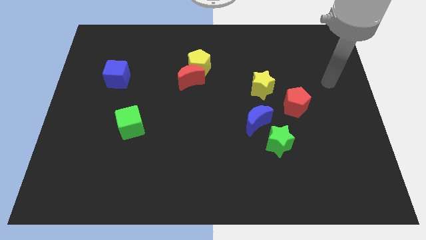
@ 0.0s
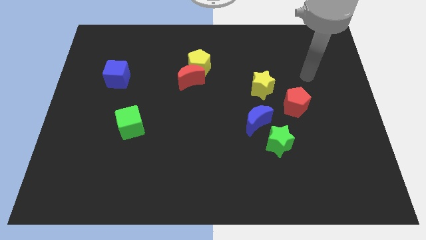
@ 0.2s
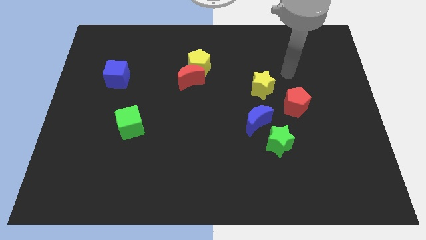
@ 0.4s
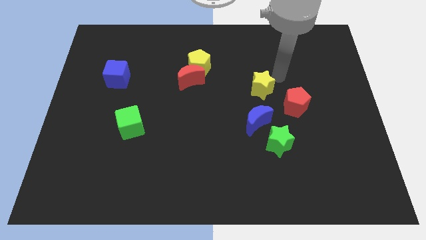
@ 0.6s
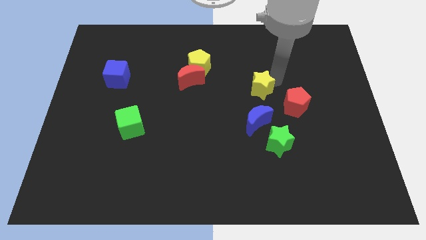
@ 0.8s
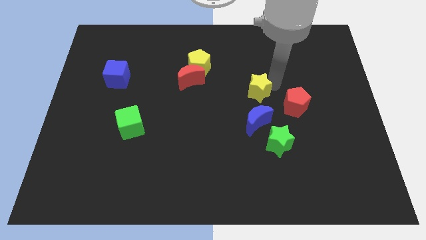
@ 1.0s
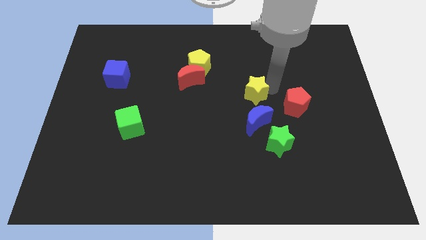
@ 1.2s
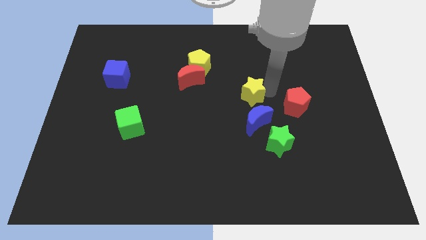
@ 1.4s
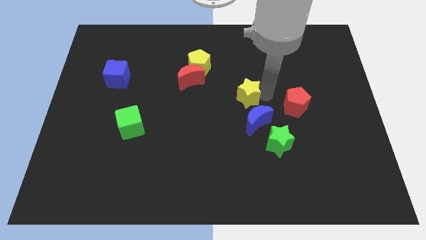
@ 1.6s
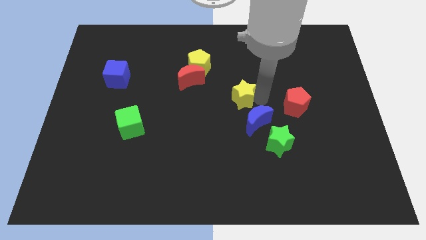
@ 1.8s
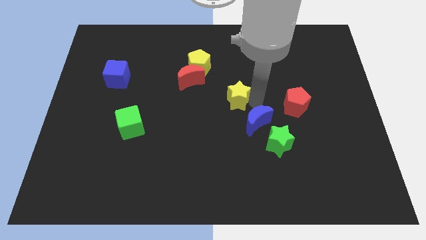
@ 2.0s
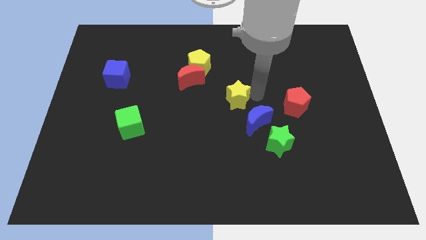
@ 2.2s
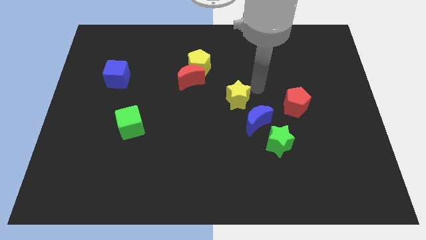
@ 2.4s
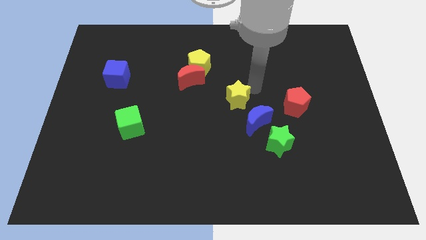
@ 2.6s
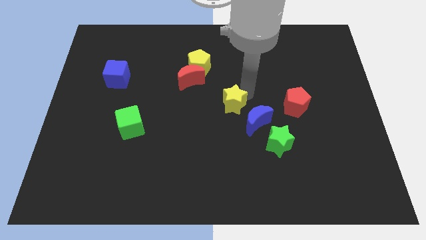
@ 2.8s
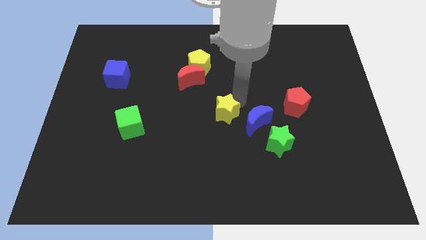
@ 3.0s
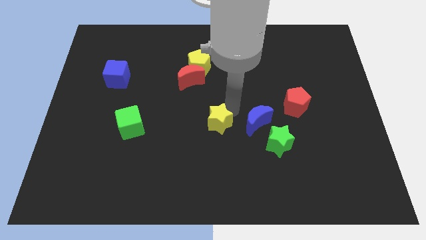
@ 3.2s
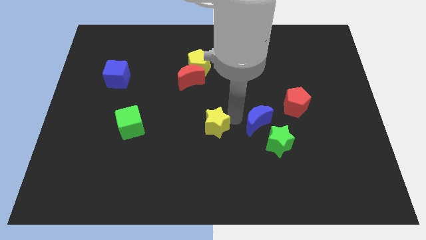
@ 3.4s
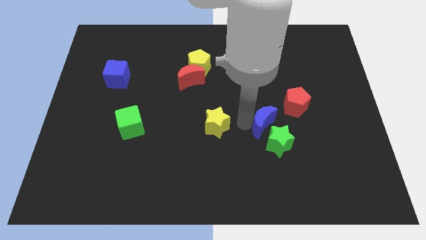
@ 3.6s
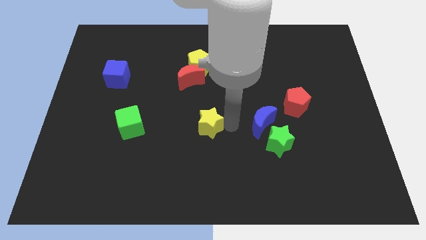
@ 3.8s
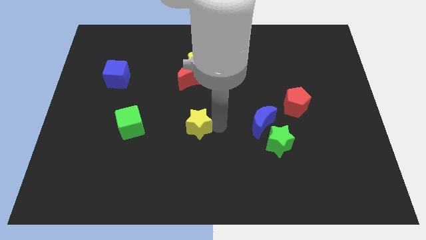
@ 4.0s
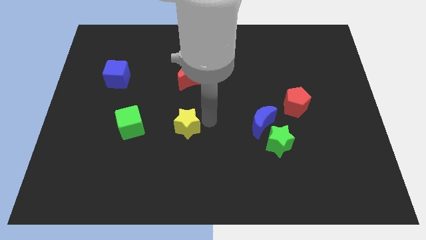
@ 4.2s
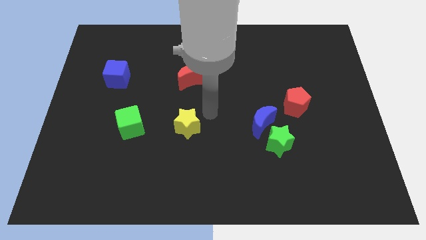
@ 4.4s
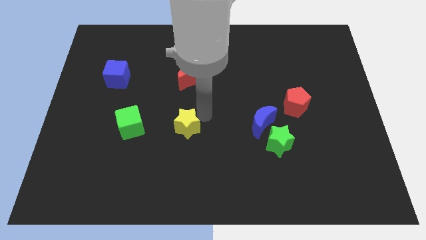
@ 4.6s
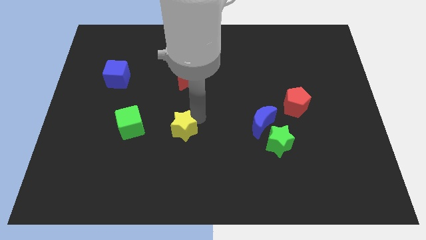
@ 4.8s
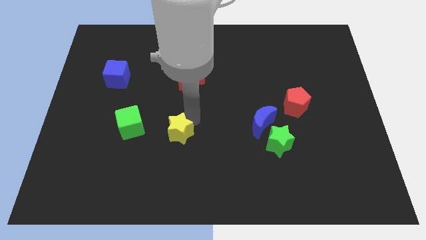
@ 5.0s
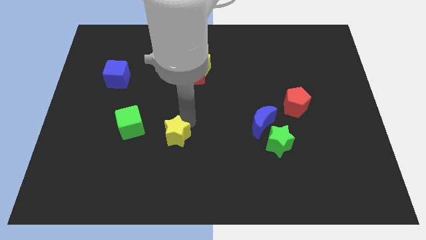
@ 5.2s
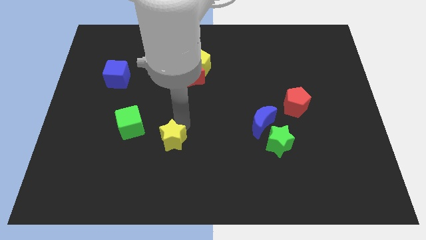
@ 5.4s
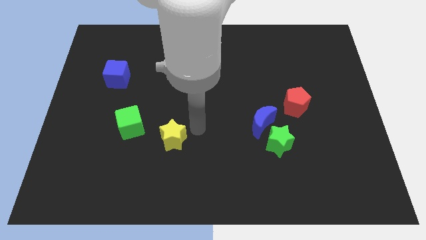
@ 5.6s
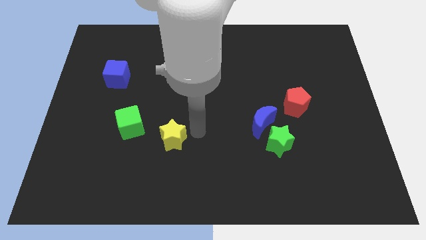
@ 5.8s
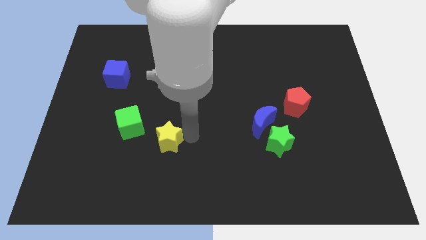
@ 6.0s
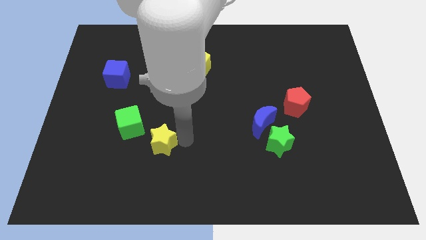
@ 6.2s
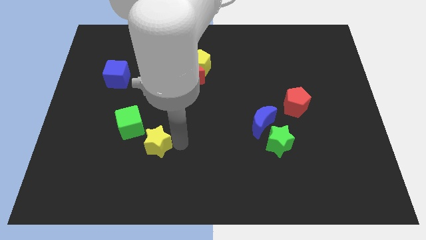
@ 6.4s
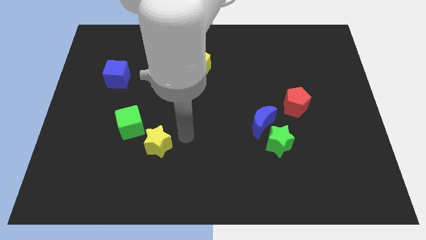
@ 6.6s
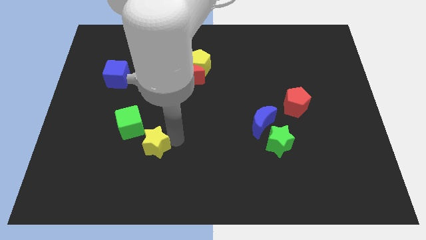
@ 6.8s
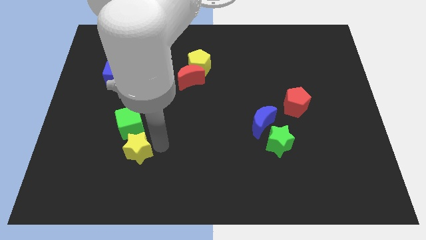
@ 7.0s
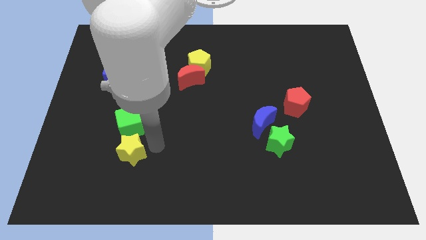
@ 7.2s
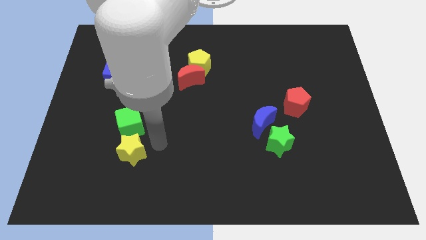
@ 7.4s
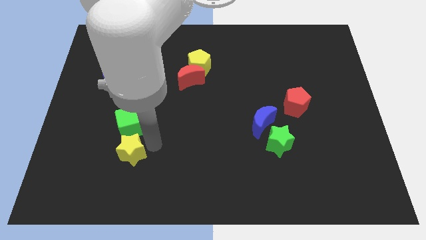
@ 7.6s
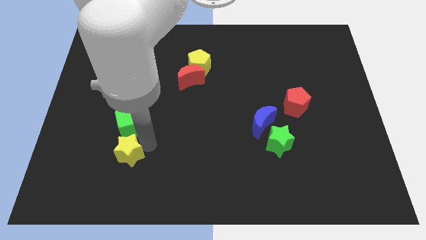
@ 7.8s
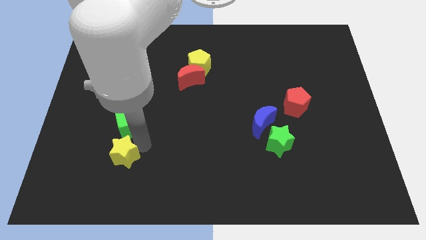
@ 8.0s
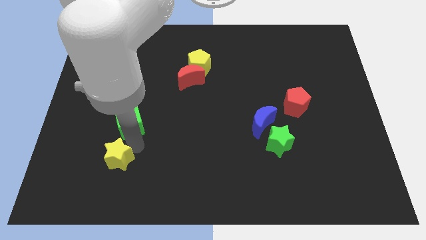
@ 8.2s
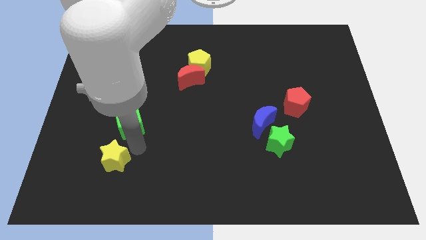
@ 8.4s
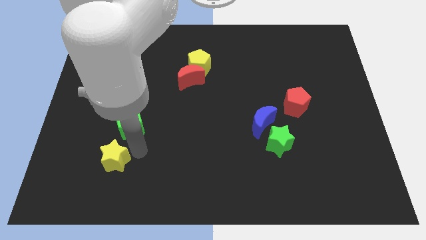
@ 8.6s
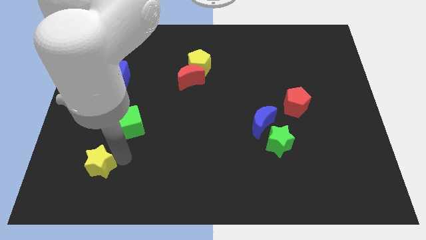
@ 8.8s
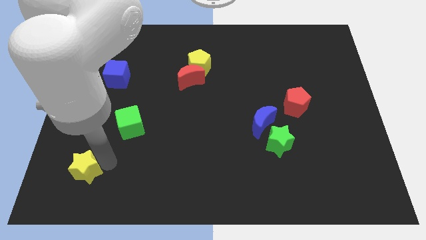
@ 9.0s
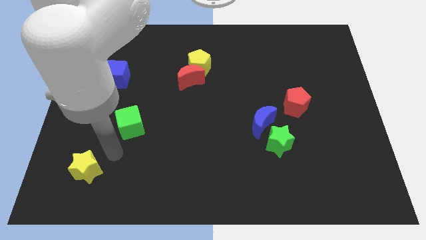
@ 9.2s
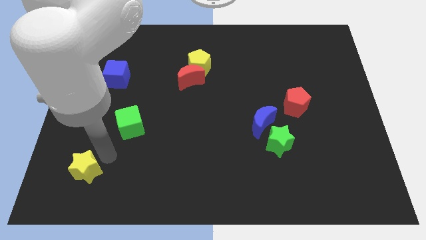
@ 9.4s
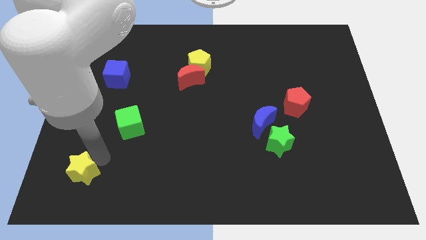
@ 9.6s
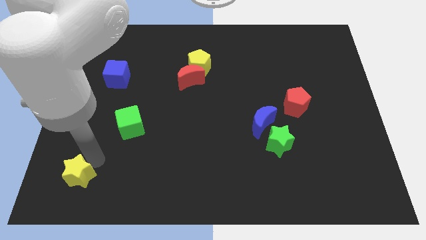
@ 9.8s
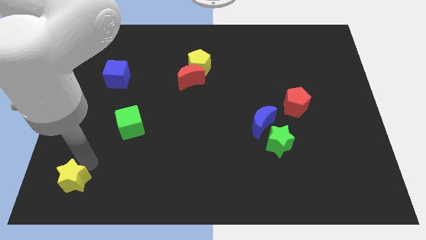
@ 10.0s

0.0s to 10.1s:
move the yellow star to the bottom left corner

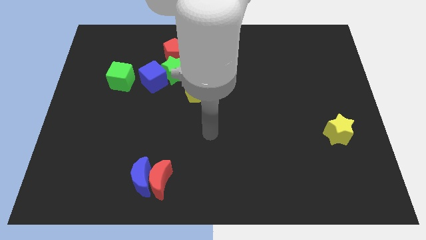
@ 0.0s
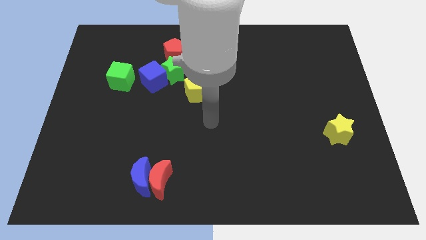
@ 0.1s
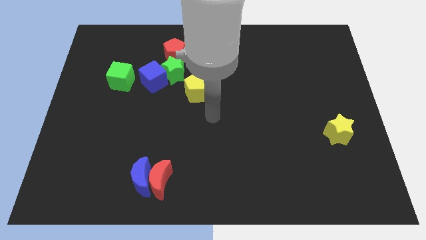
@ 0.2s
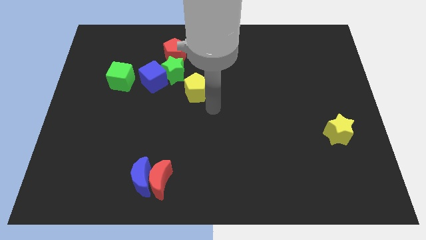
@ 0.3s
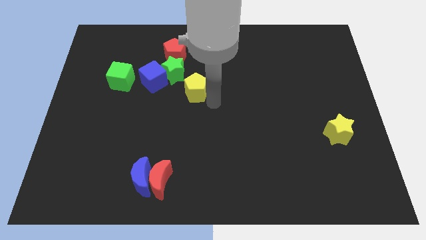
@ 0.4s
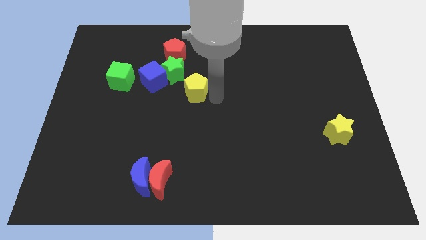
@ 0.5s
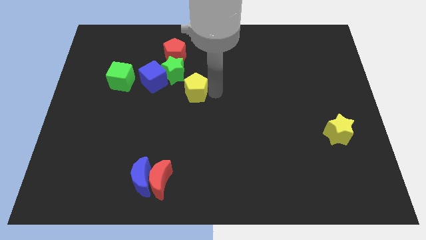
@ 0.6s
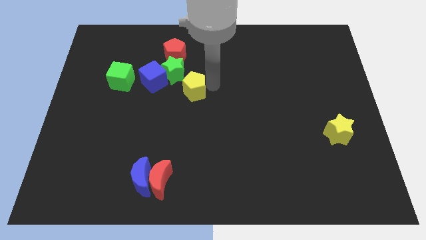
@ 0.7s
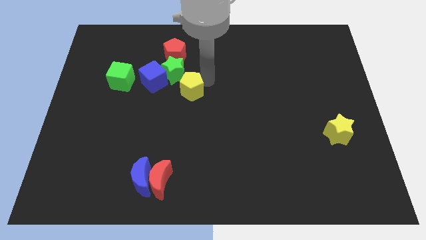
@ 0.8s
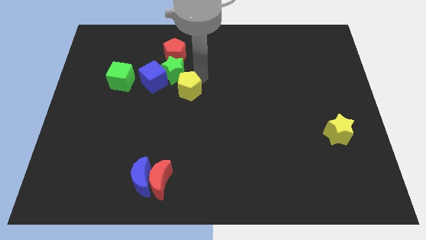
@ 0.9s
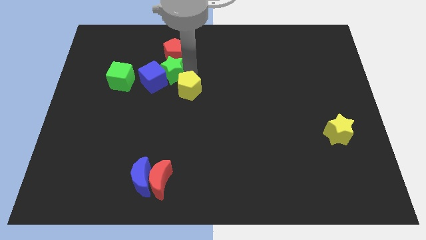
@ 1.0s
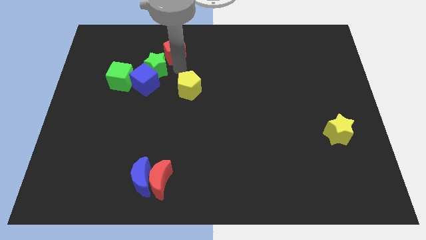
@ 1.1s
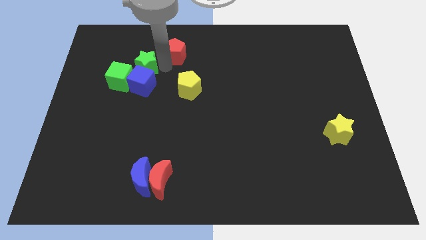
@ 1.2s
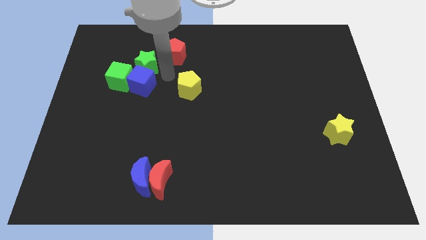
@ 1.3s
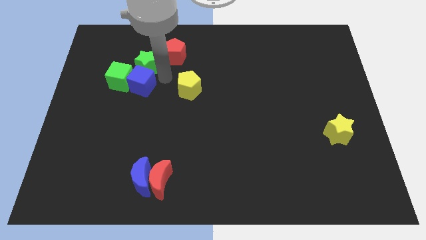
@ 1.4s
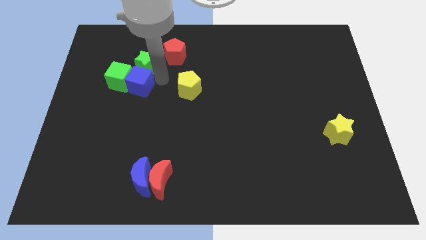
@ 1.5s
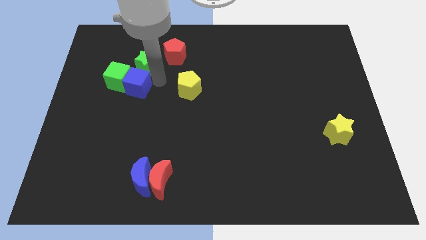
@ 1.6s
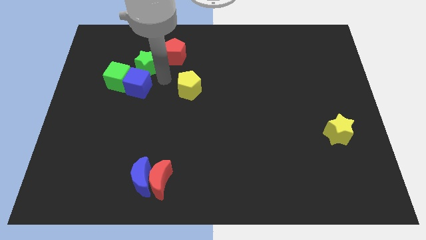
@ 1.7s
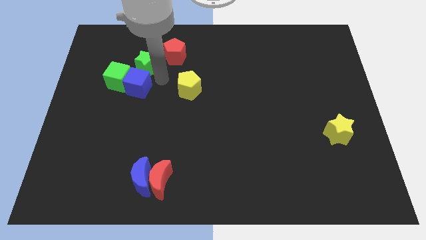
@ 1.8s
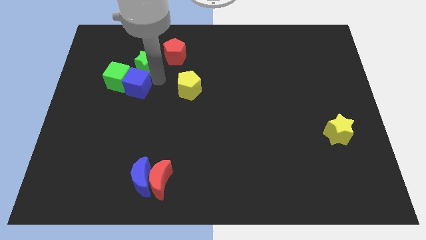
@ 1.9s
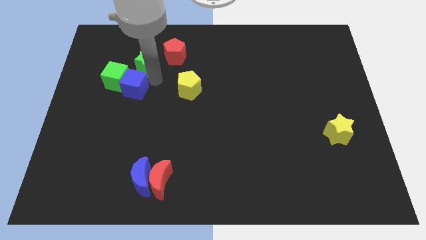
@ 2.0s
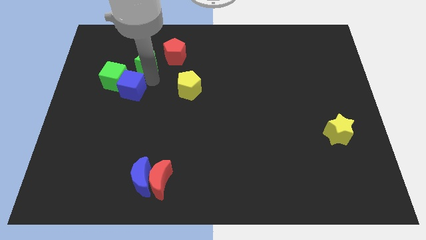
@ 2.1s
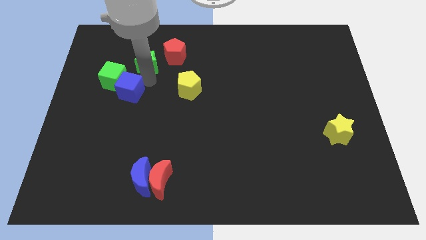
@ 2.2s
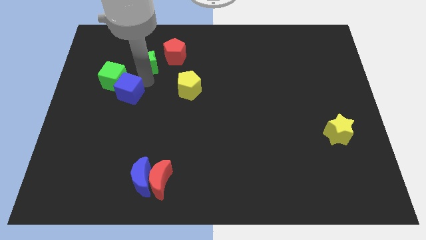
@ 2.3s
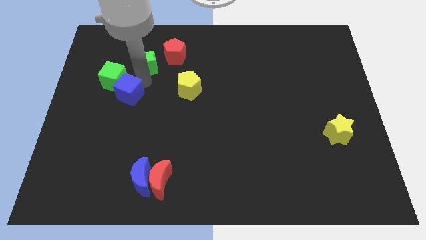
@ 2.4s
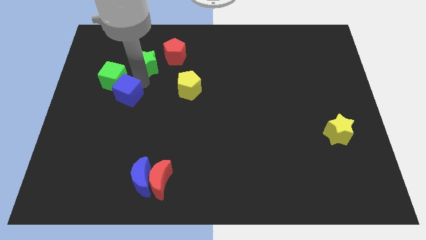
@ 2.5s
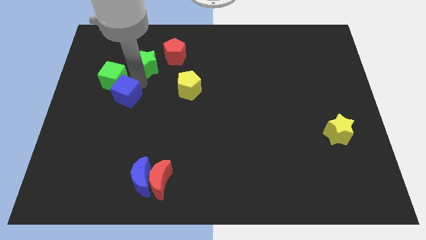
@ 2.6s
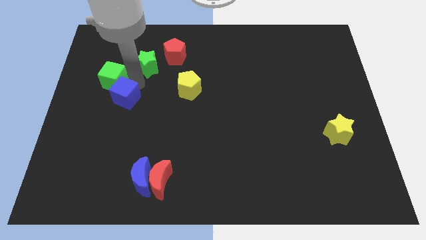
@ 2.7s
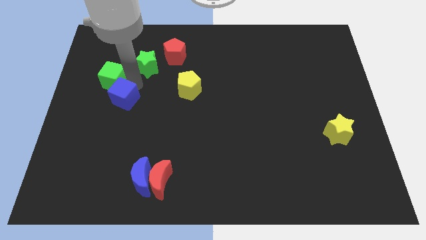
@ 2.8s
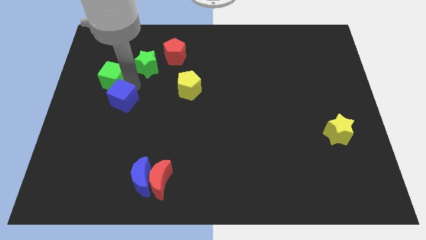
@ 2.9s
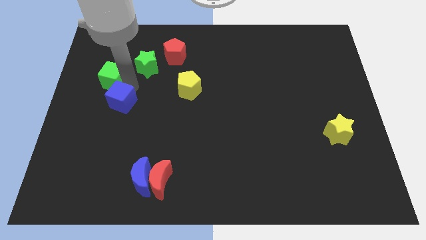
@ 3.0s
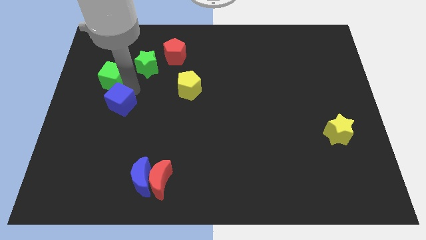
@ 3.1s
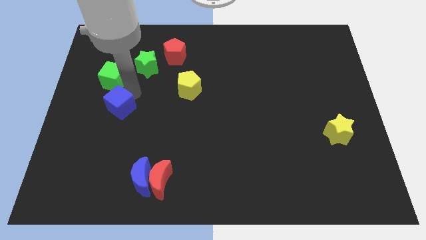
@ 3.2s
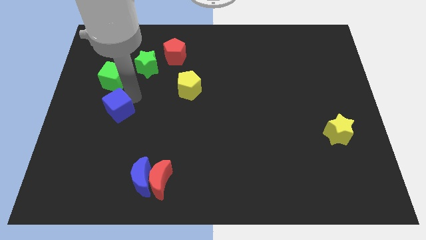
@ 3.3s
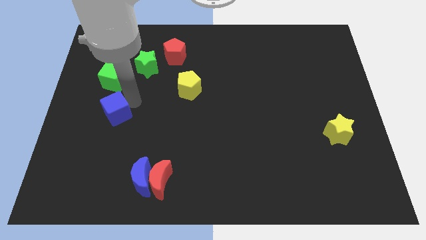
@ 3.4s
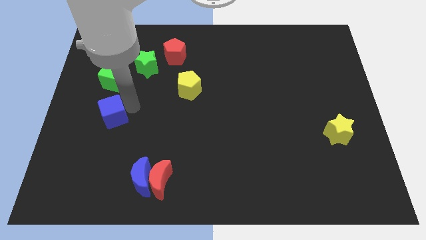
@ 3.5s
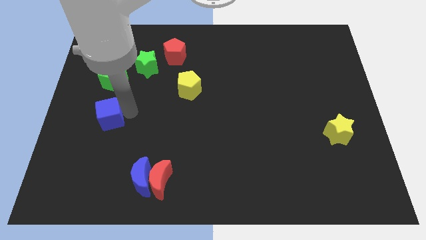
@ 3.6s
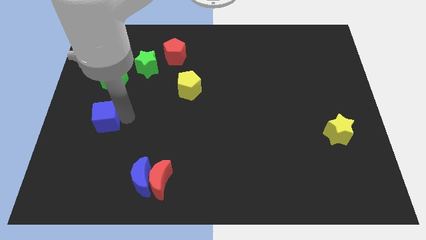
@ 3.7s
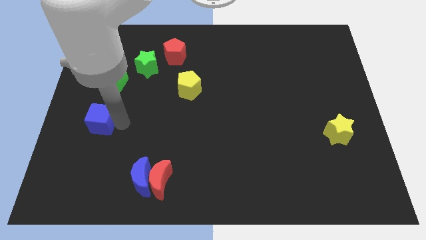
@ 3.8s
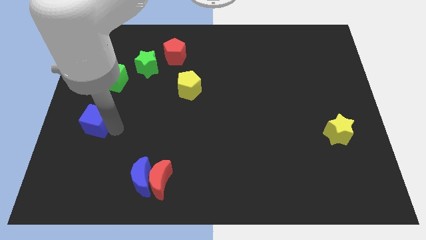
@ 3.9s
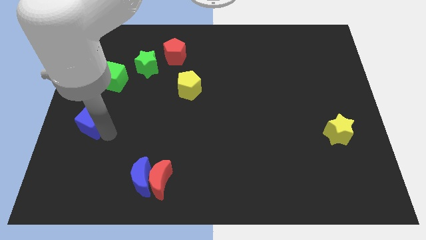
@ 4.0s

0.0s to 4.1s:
slide the blue cube to the left side of the board
